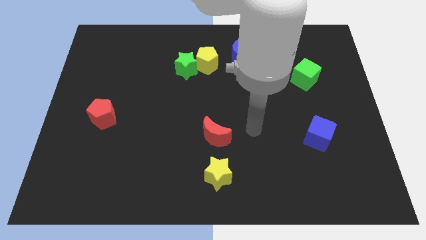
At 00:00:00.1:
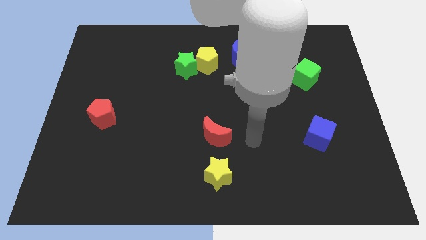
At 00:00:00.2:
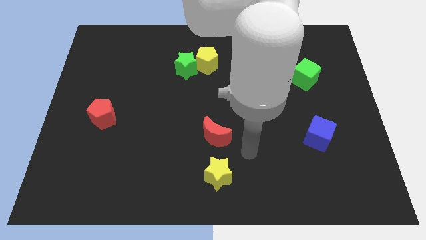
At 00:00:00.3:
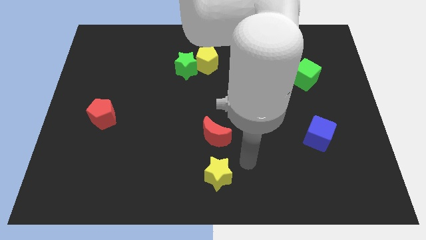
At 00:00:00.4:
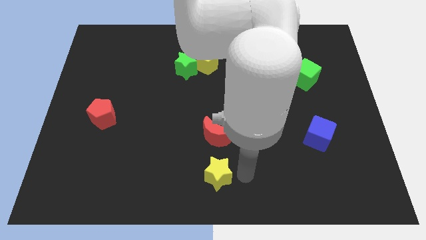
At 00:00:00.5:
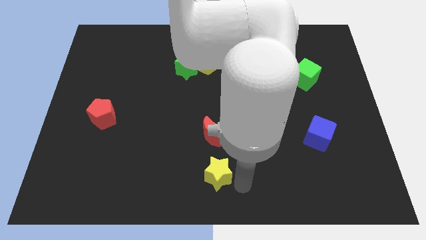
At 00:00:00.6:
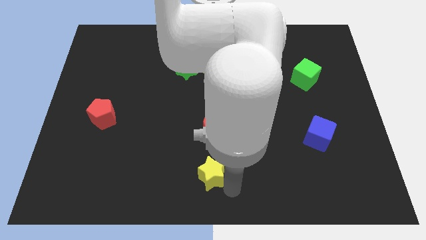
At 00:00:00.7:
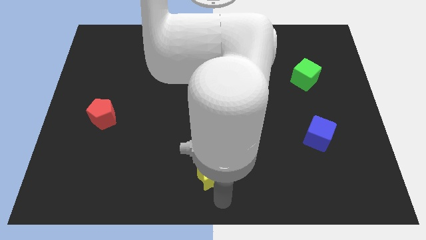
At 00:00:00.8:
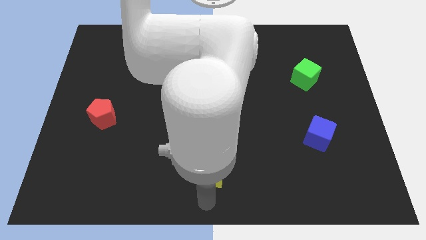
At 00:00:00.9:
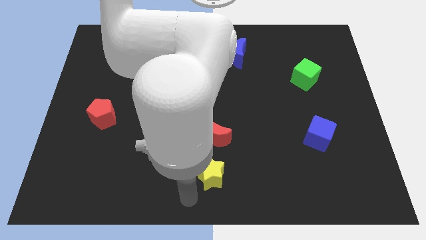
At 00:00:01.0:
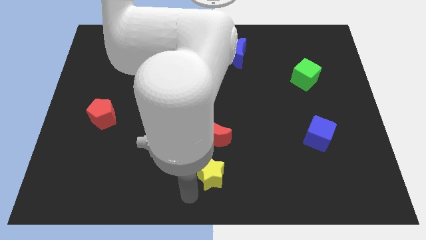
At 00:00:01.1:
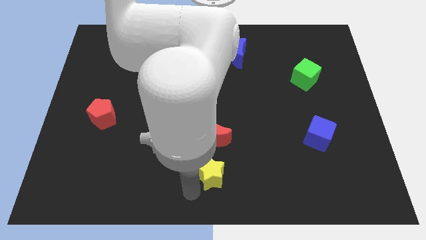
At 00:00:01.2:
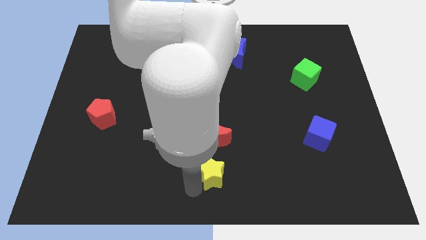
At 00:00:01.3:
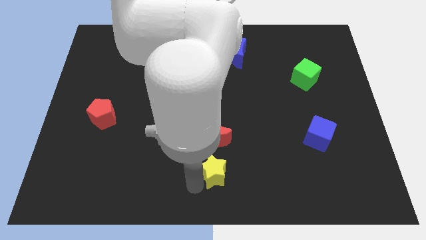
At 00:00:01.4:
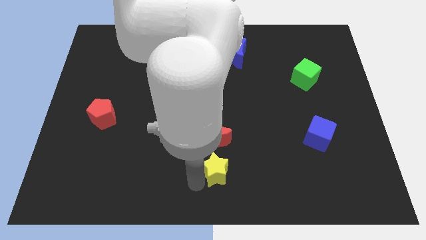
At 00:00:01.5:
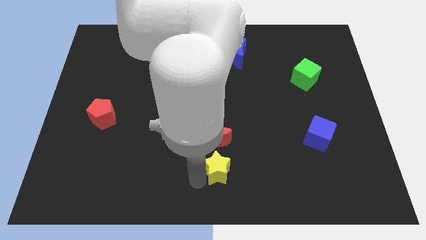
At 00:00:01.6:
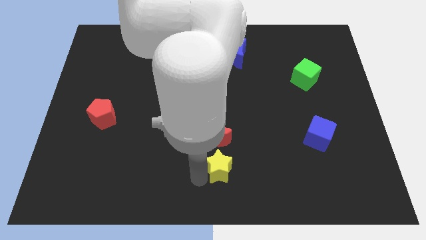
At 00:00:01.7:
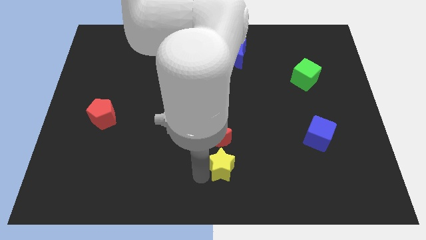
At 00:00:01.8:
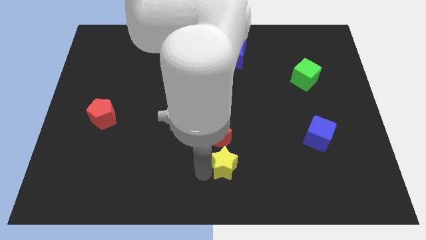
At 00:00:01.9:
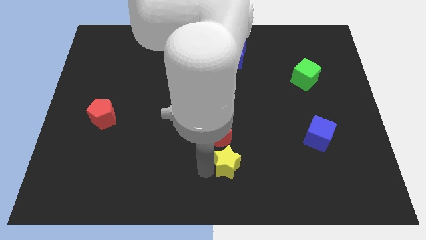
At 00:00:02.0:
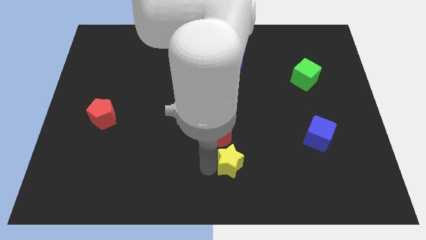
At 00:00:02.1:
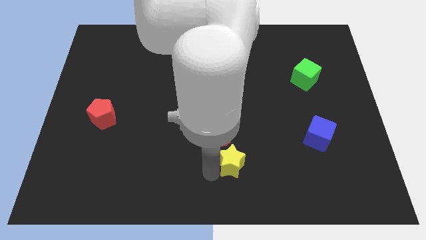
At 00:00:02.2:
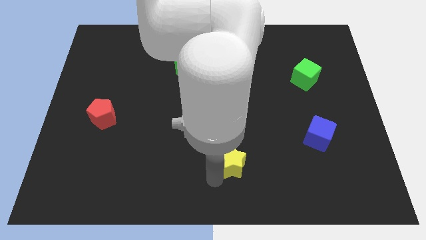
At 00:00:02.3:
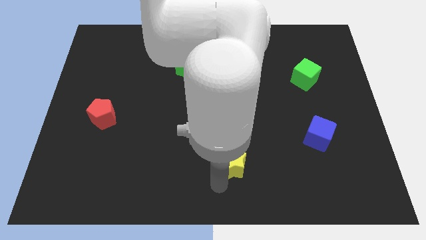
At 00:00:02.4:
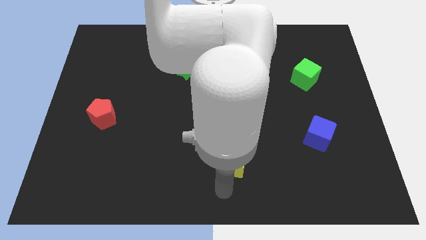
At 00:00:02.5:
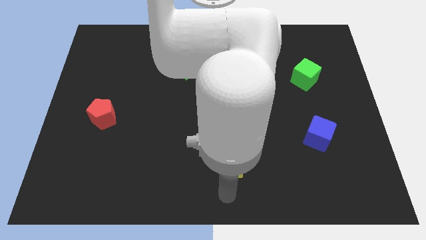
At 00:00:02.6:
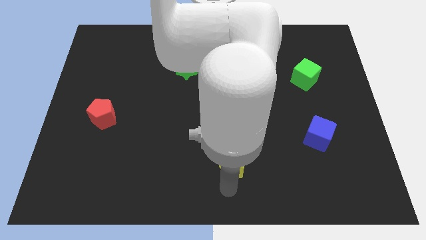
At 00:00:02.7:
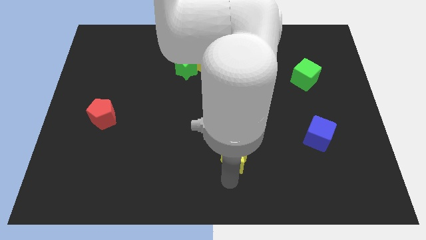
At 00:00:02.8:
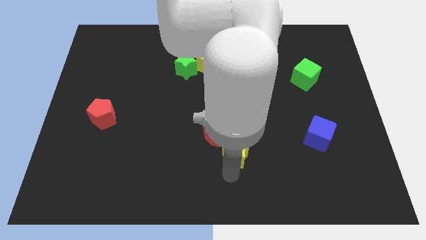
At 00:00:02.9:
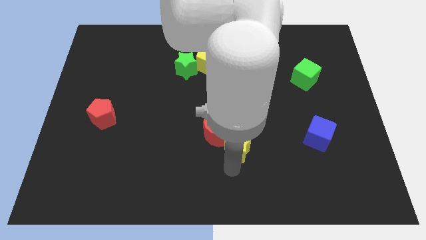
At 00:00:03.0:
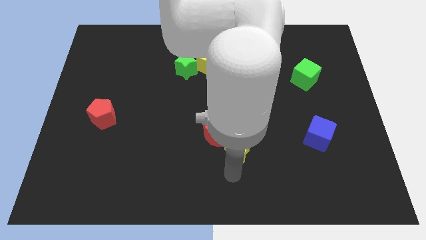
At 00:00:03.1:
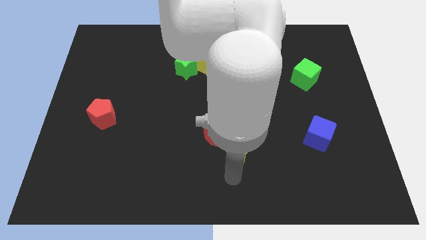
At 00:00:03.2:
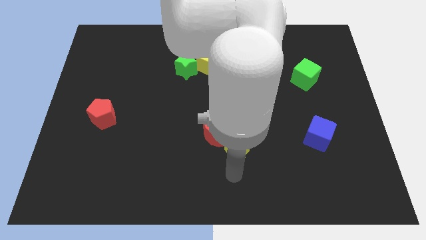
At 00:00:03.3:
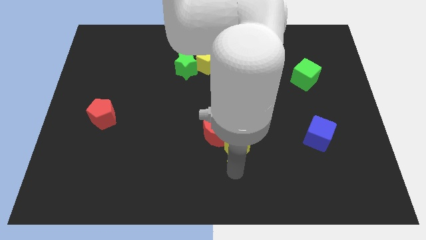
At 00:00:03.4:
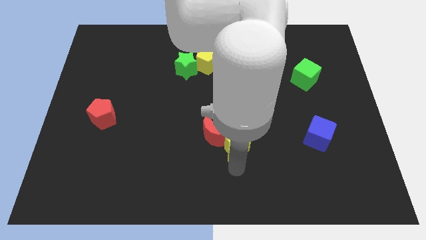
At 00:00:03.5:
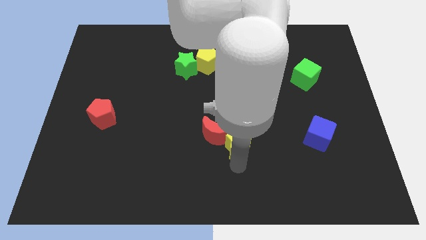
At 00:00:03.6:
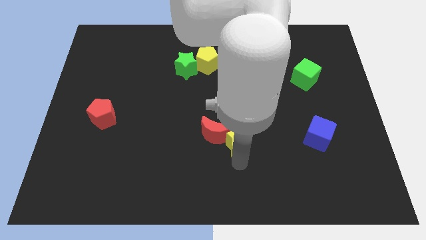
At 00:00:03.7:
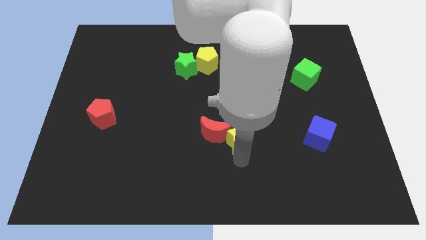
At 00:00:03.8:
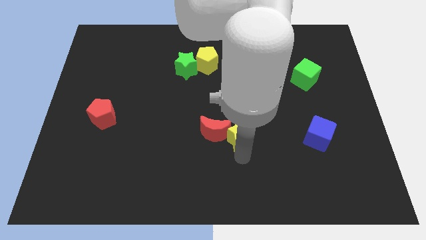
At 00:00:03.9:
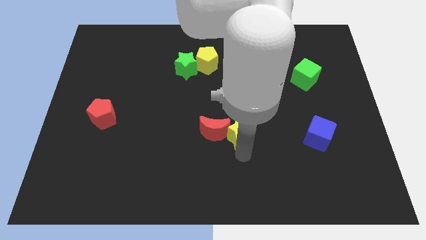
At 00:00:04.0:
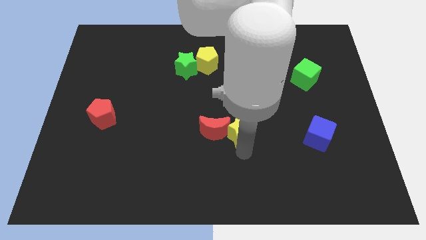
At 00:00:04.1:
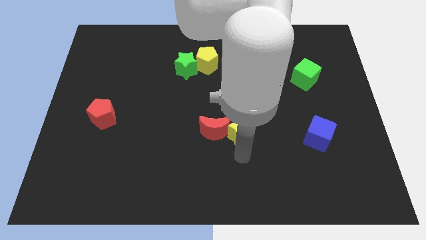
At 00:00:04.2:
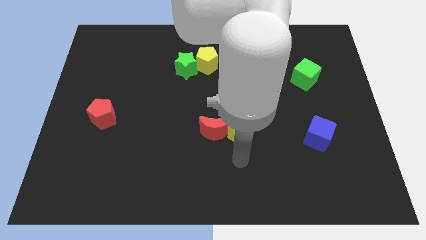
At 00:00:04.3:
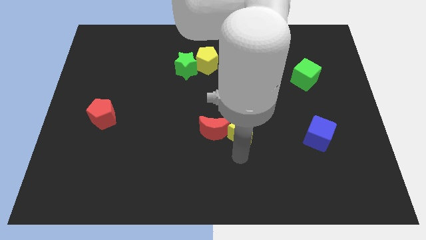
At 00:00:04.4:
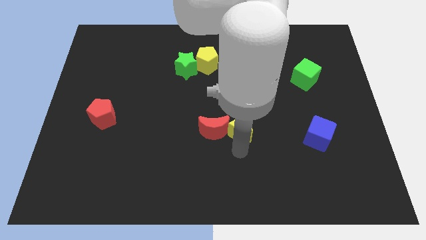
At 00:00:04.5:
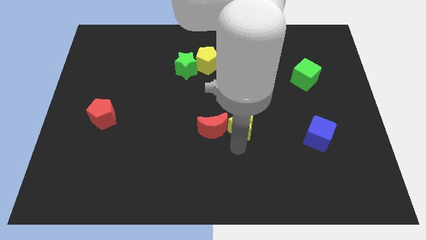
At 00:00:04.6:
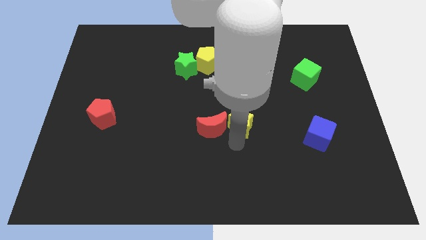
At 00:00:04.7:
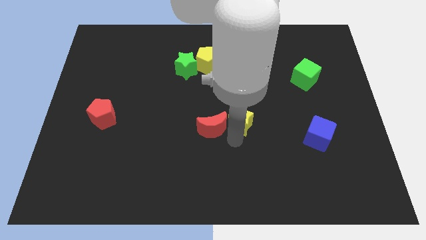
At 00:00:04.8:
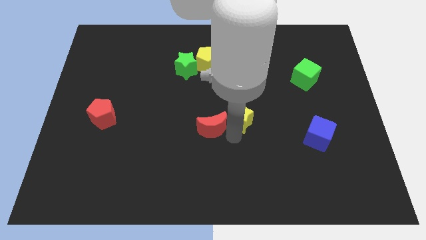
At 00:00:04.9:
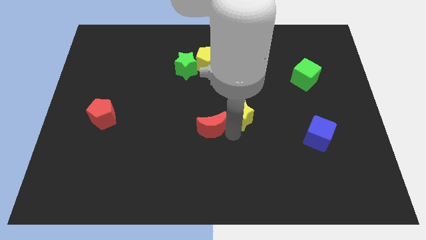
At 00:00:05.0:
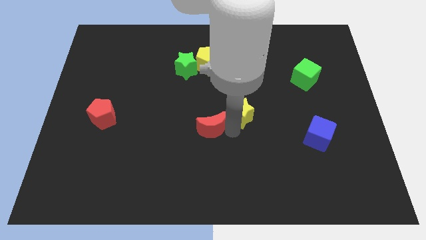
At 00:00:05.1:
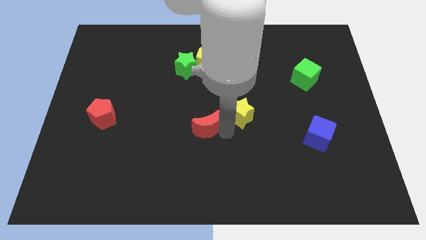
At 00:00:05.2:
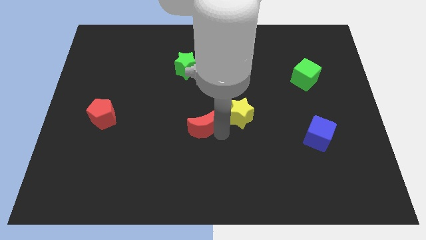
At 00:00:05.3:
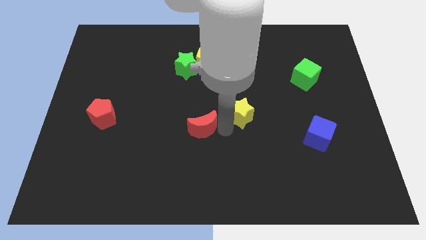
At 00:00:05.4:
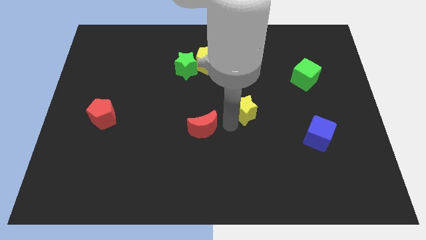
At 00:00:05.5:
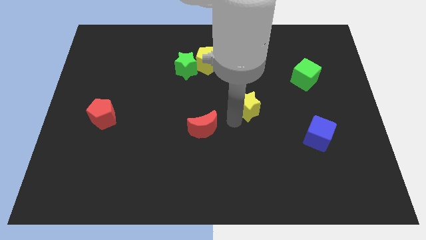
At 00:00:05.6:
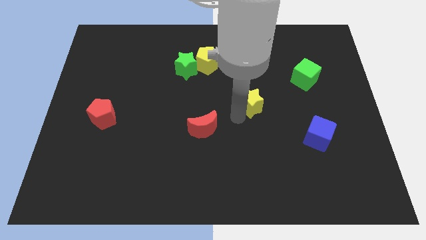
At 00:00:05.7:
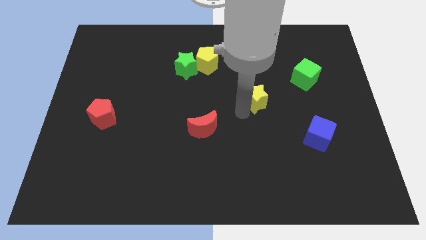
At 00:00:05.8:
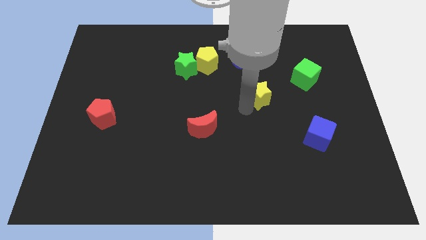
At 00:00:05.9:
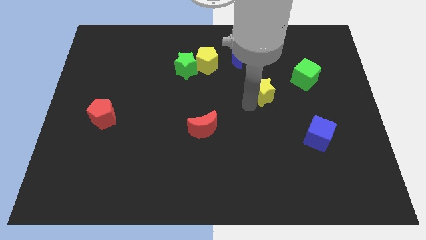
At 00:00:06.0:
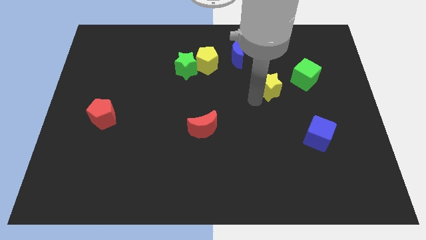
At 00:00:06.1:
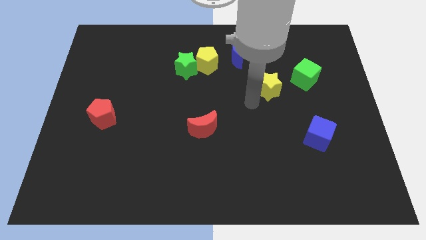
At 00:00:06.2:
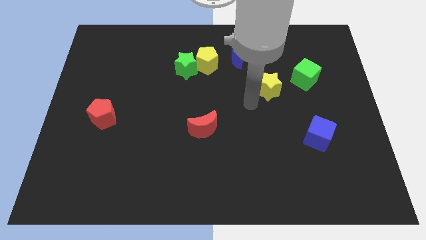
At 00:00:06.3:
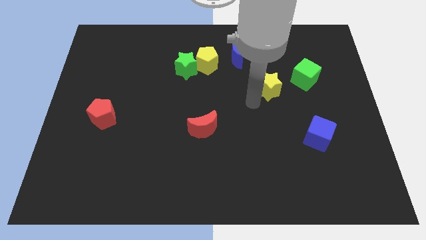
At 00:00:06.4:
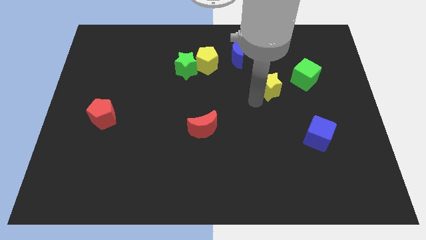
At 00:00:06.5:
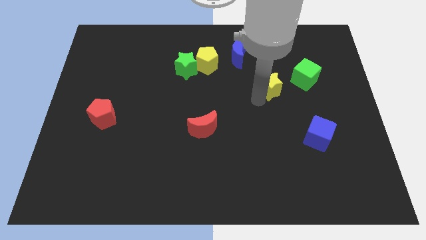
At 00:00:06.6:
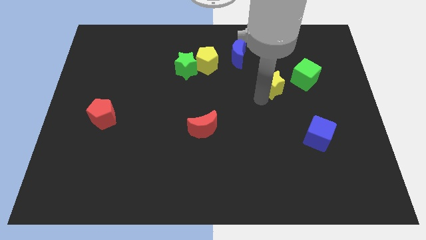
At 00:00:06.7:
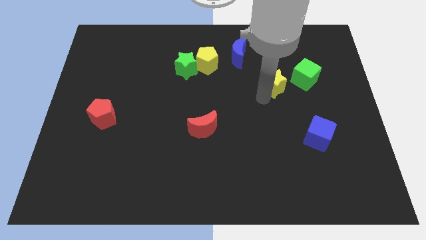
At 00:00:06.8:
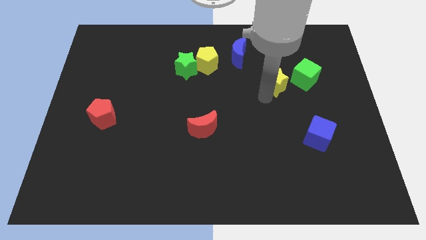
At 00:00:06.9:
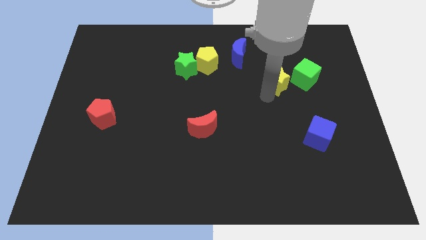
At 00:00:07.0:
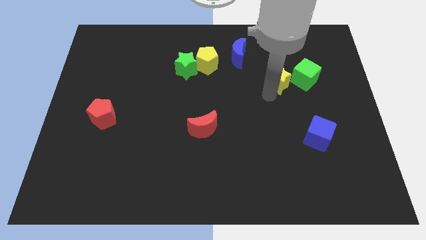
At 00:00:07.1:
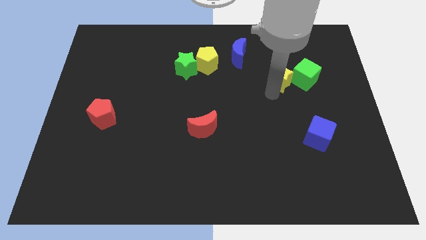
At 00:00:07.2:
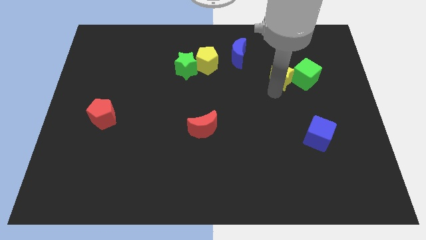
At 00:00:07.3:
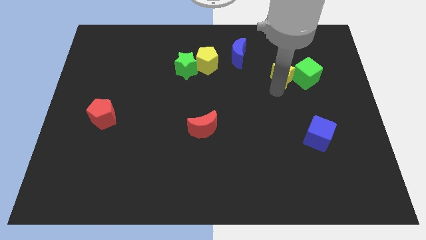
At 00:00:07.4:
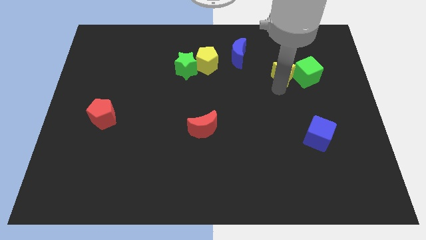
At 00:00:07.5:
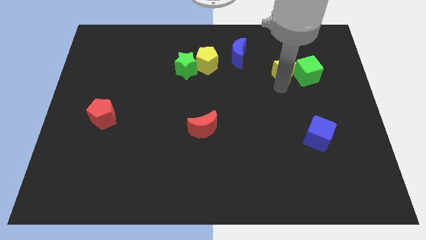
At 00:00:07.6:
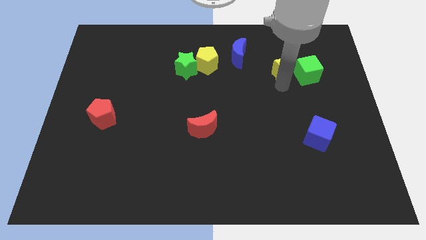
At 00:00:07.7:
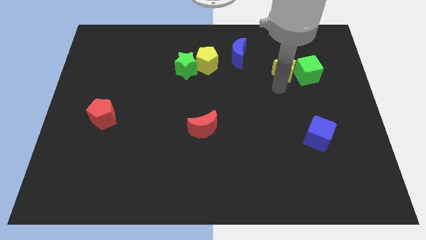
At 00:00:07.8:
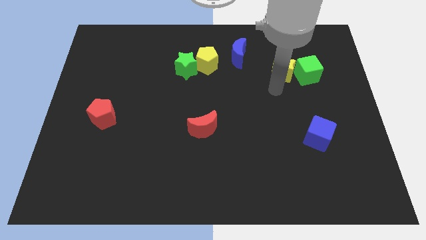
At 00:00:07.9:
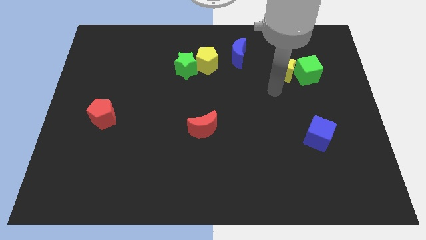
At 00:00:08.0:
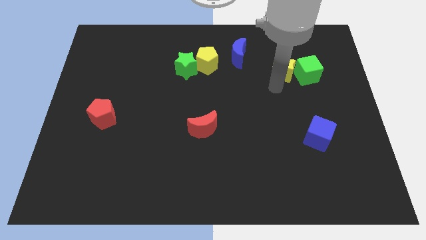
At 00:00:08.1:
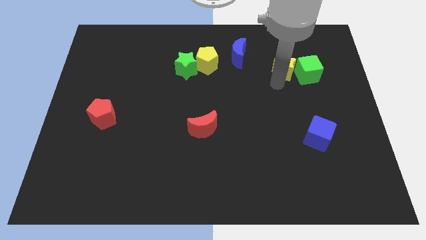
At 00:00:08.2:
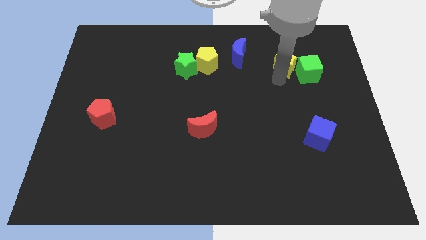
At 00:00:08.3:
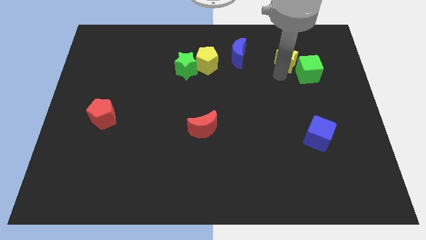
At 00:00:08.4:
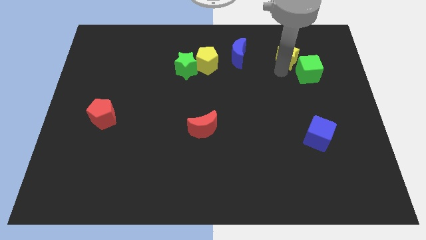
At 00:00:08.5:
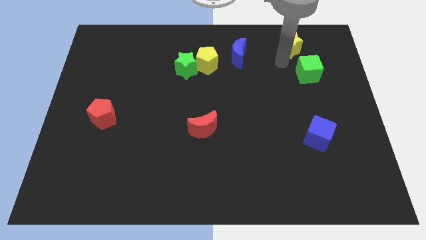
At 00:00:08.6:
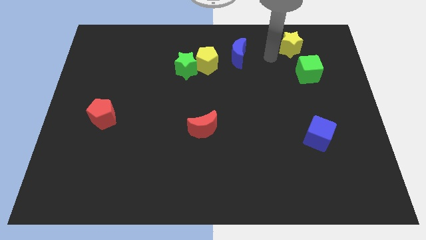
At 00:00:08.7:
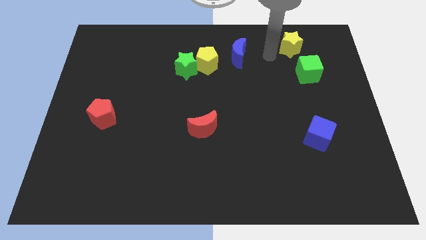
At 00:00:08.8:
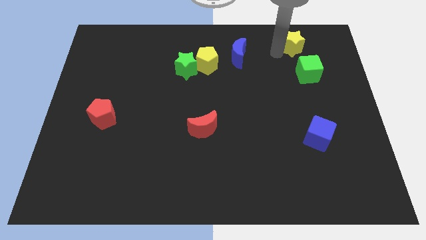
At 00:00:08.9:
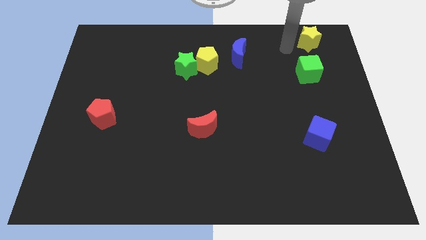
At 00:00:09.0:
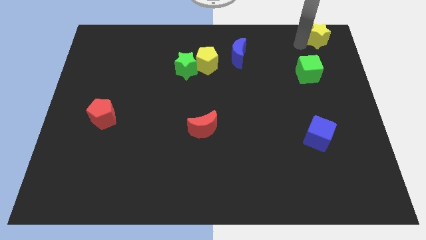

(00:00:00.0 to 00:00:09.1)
push the yellow star to the upper right corner
